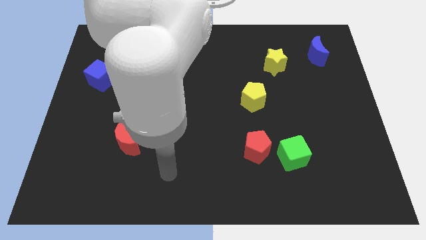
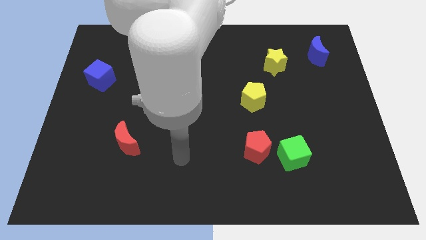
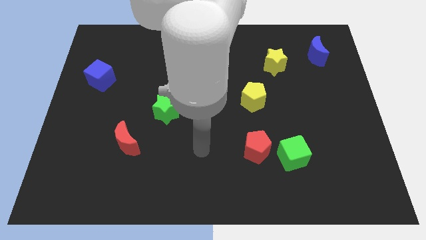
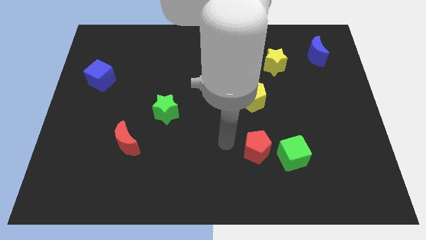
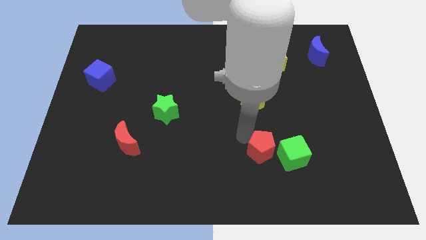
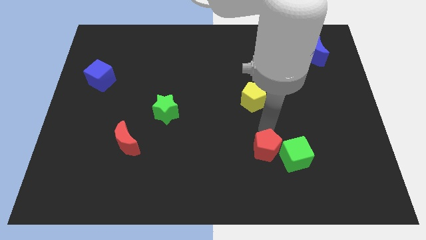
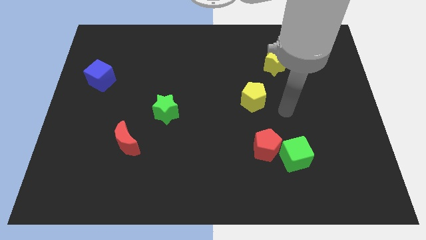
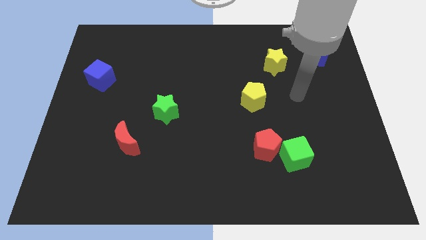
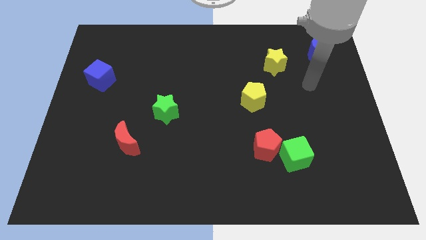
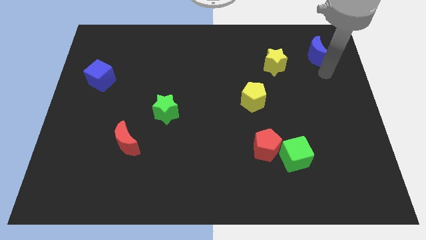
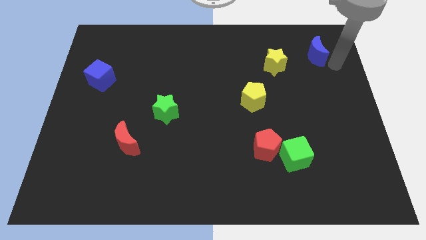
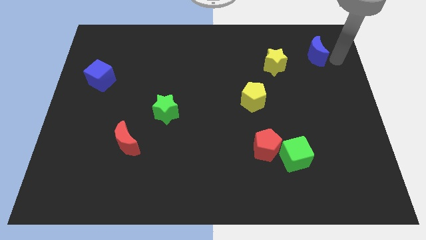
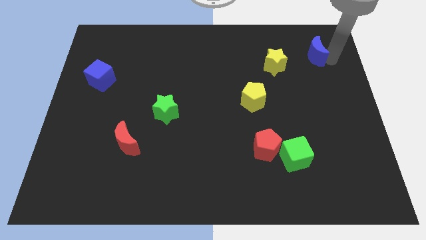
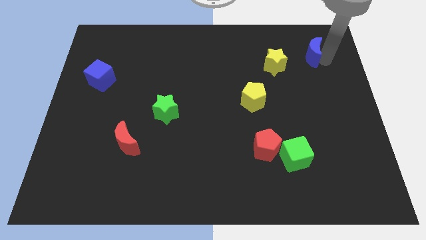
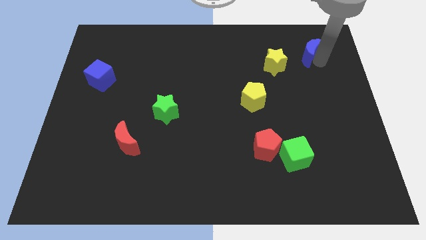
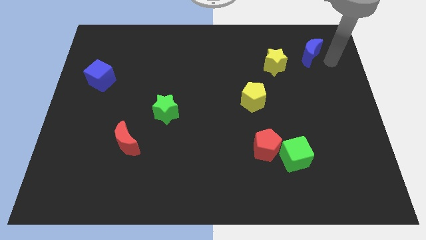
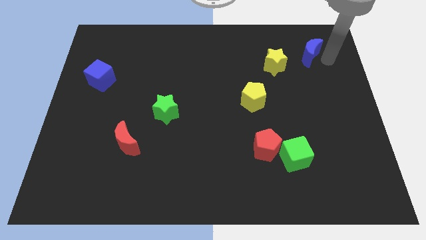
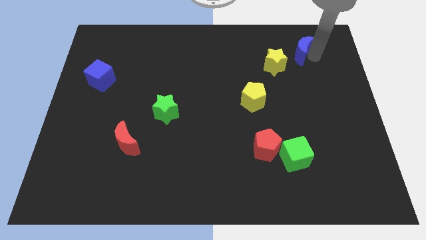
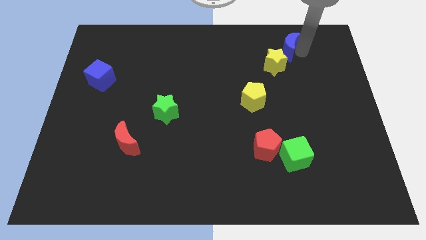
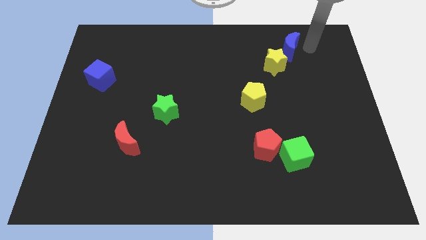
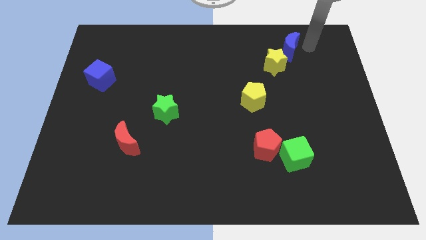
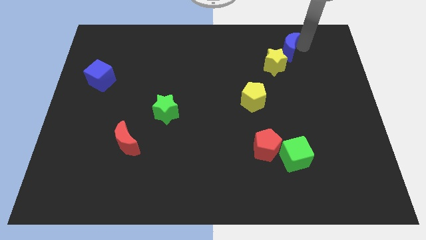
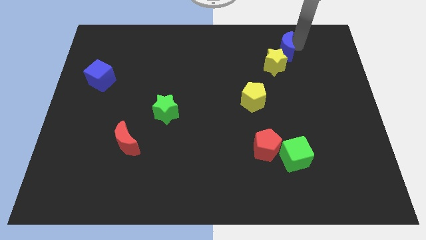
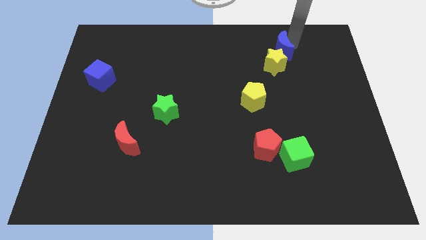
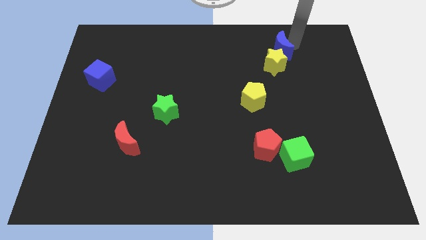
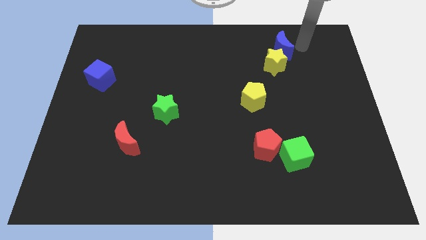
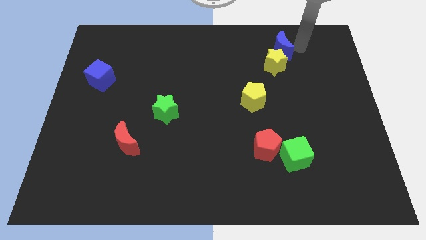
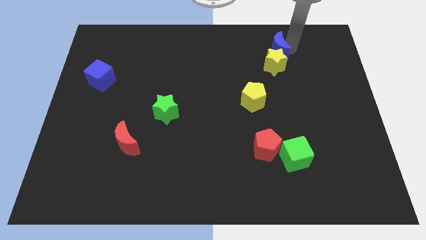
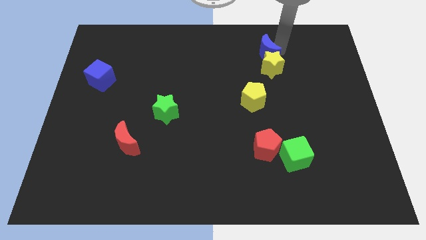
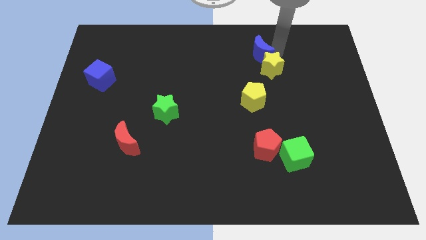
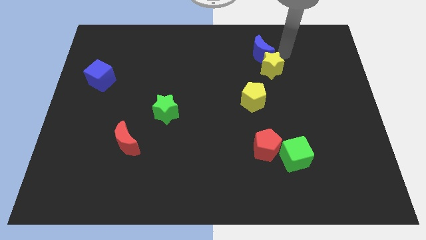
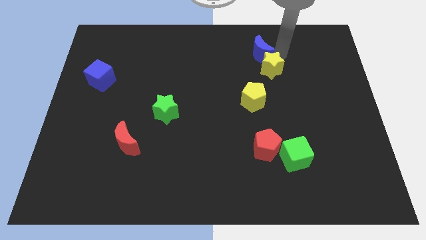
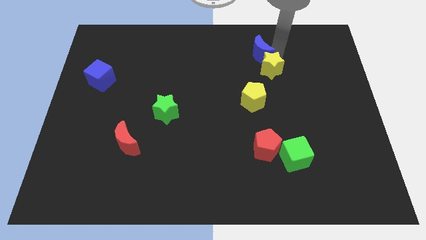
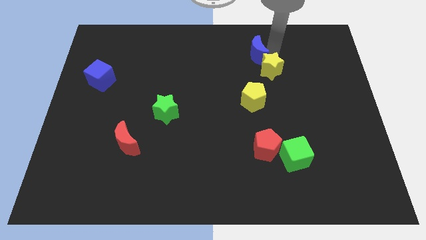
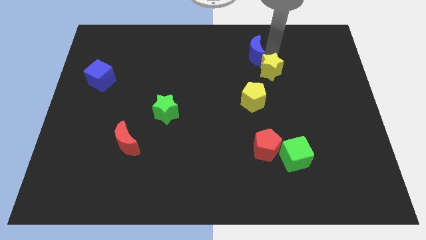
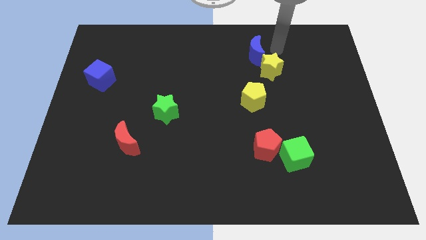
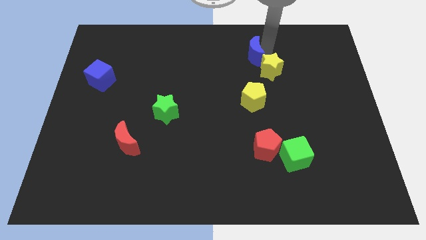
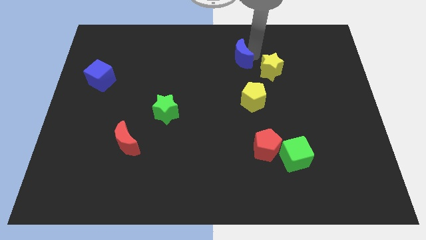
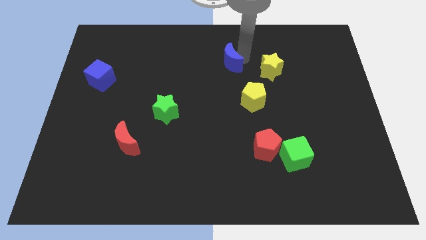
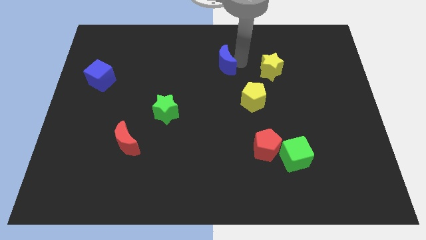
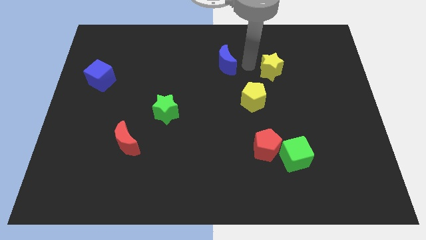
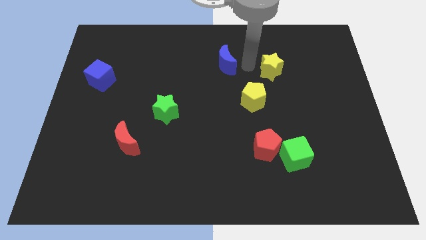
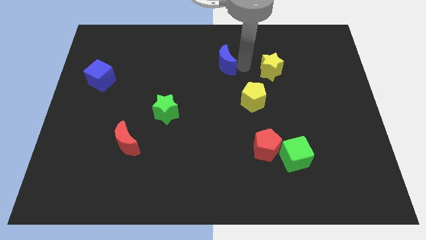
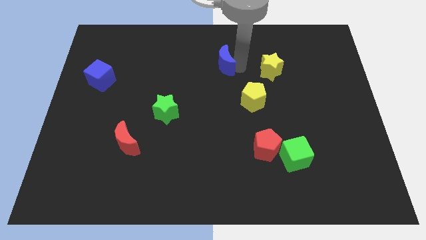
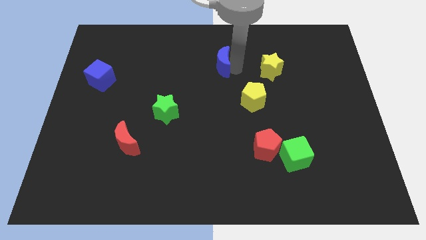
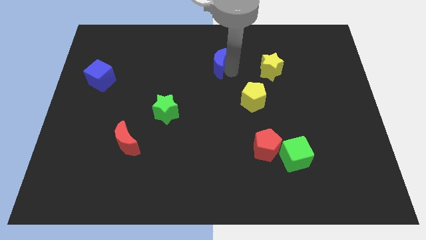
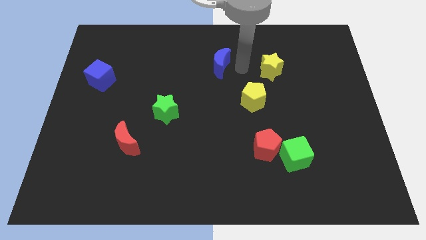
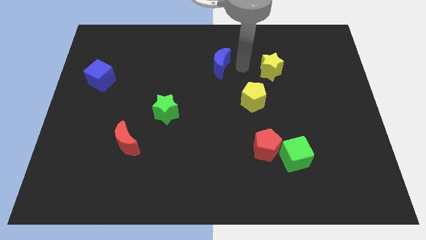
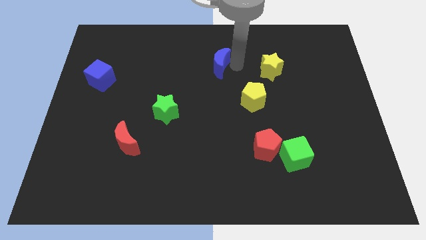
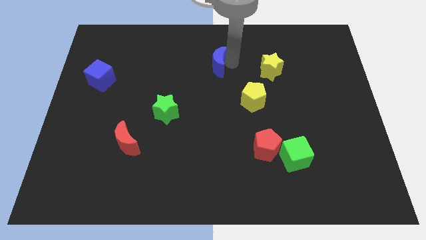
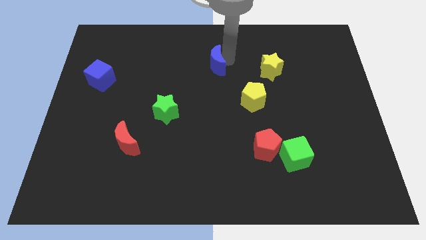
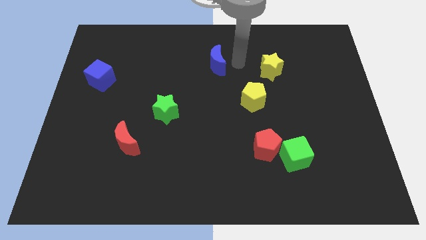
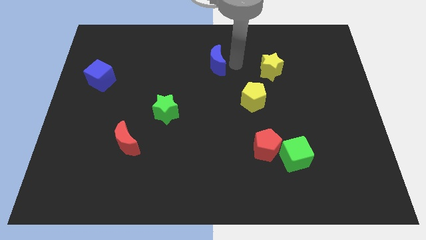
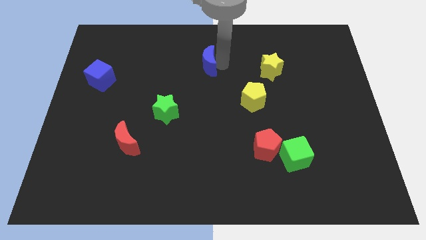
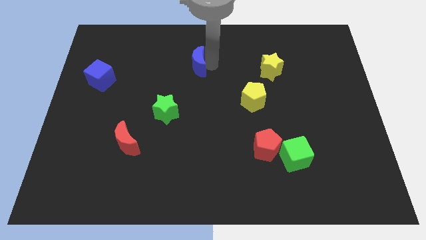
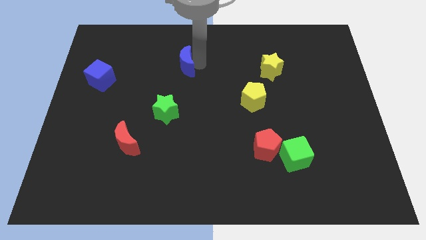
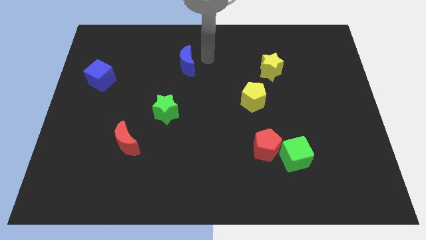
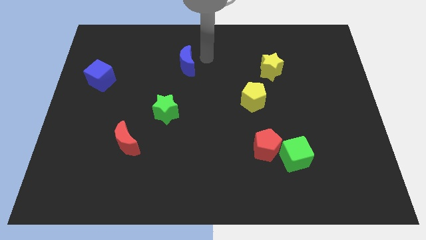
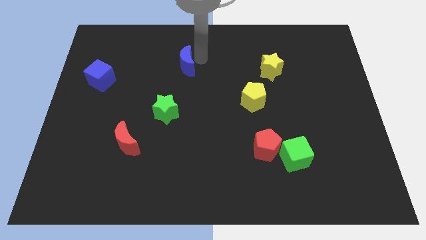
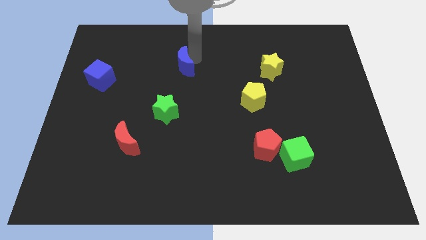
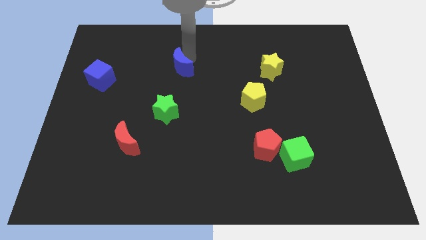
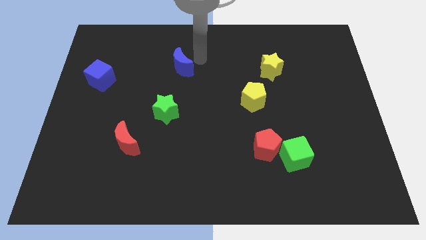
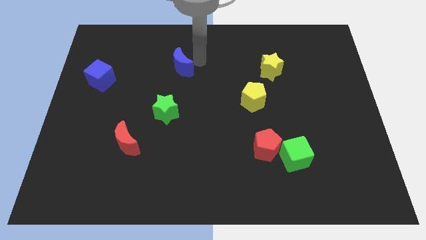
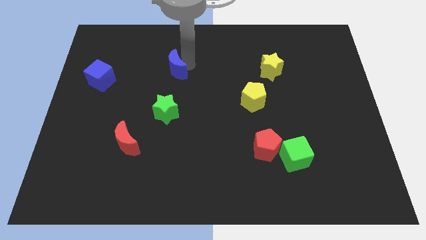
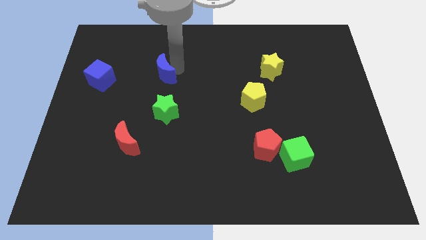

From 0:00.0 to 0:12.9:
slide the blue moon just right of the blue cube

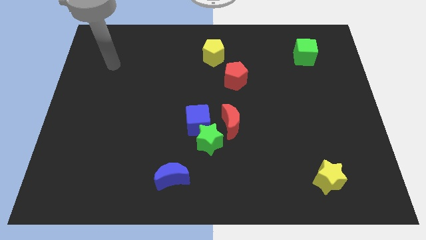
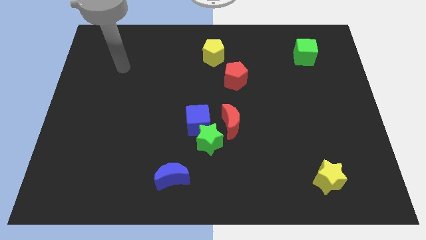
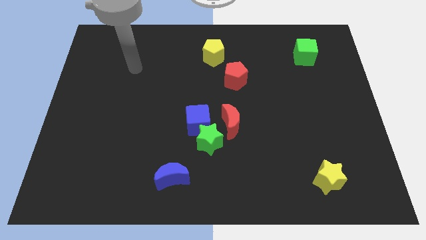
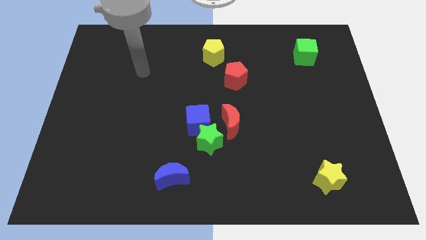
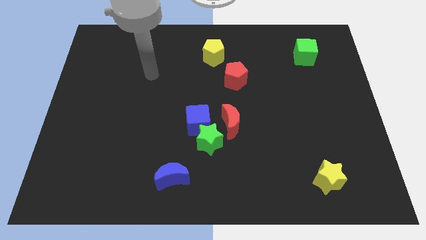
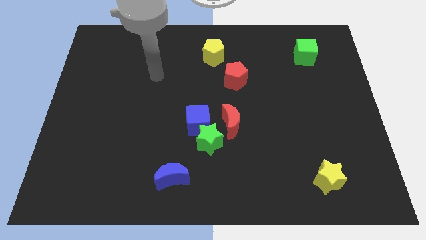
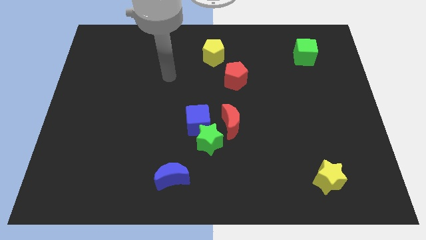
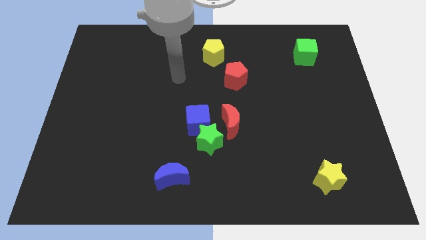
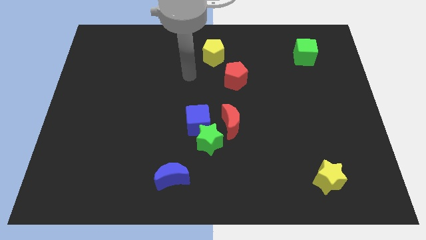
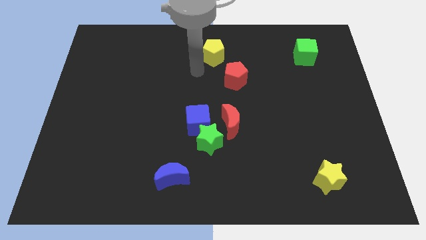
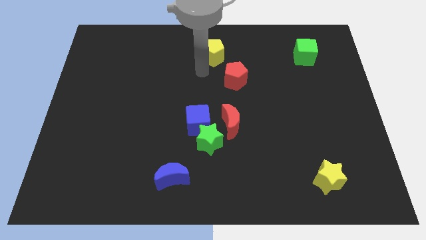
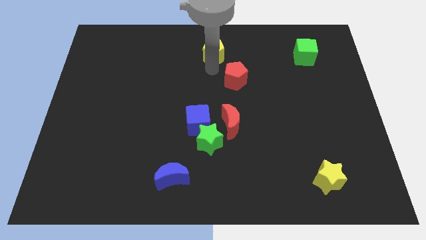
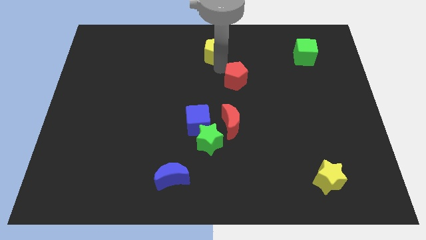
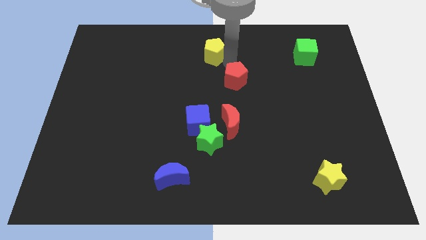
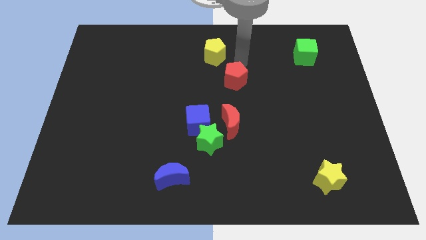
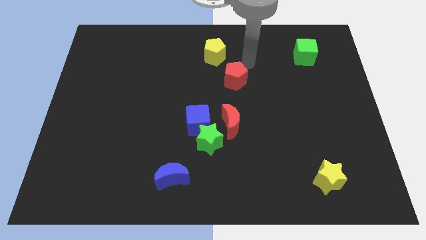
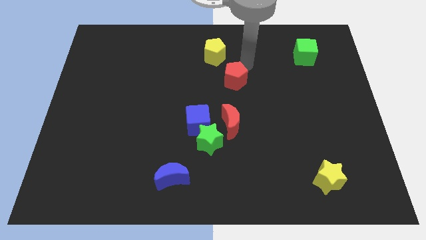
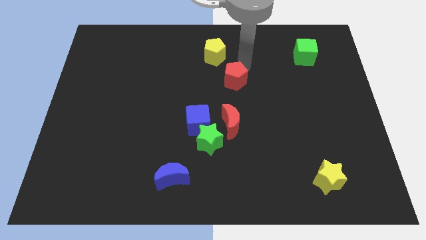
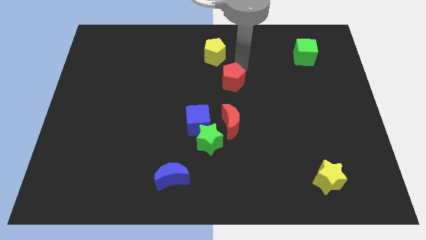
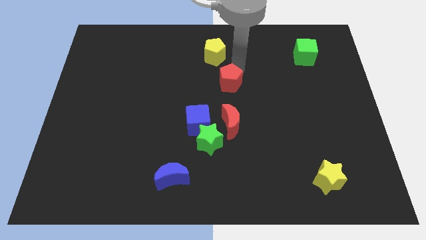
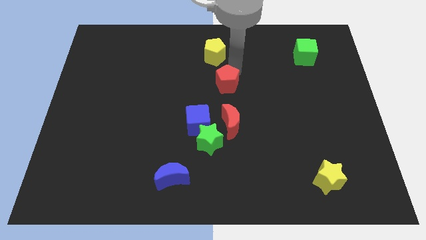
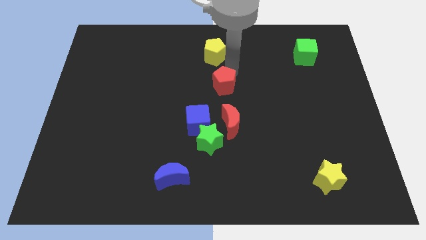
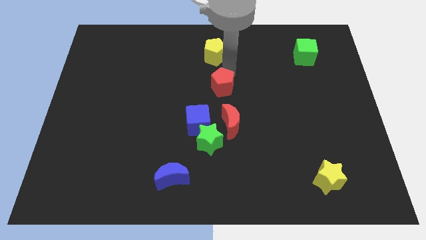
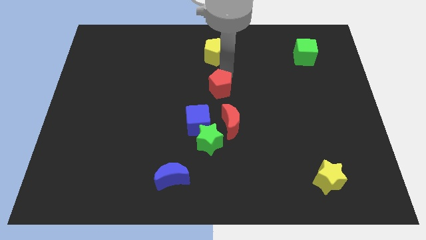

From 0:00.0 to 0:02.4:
move the red pentagon to the top of the green star
